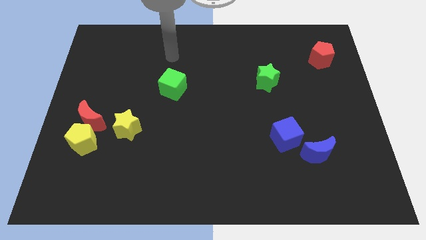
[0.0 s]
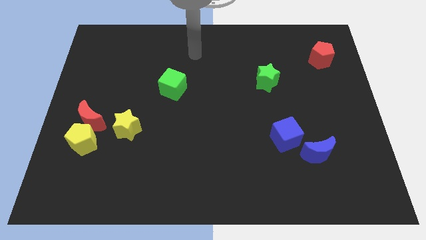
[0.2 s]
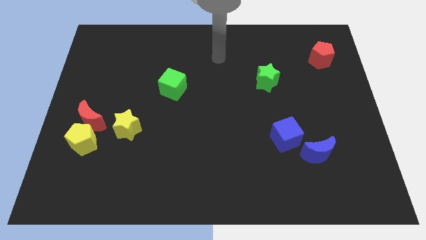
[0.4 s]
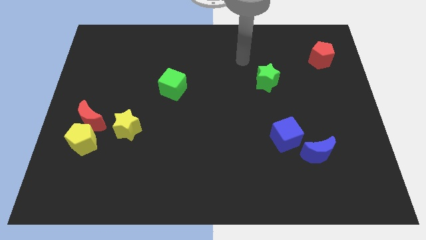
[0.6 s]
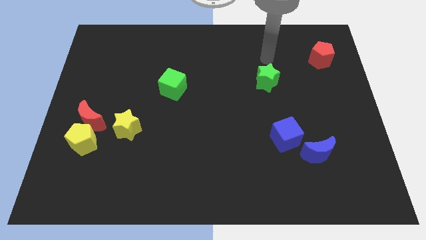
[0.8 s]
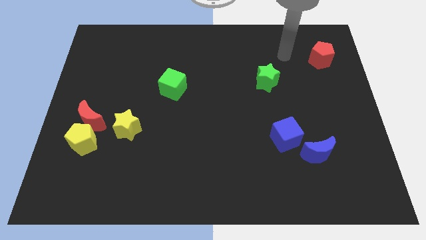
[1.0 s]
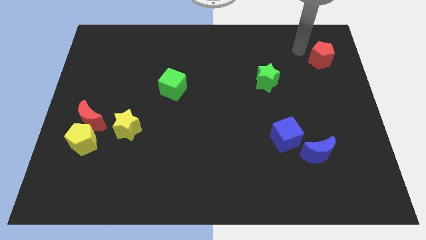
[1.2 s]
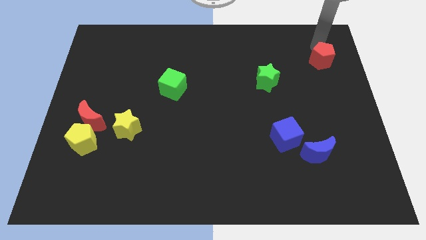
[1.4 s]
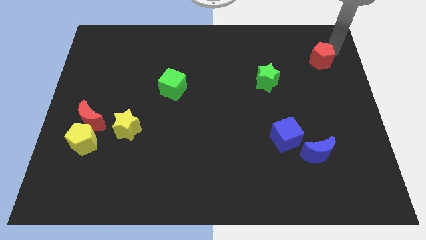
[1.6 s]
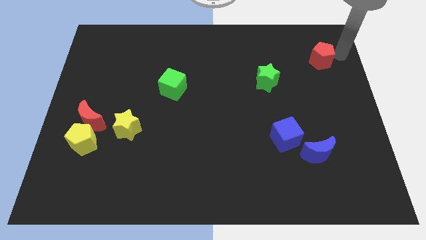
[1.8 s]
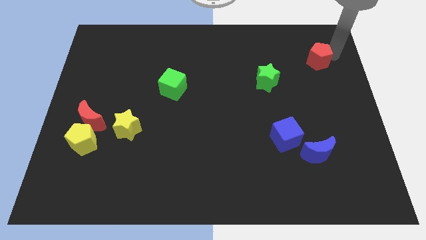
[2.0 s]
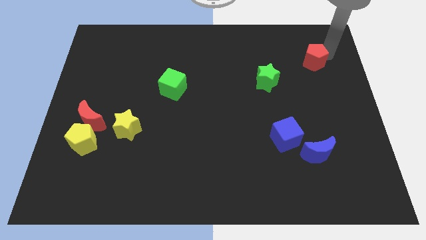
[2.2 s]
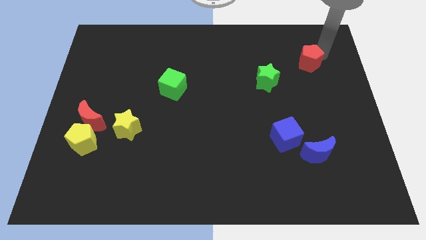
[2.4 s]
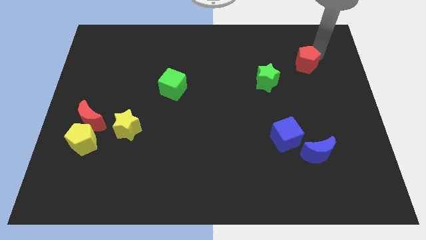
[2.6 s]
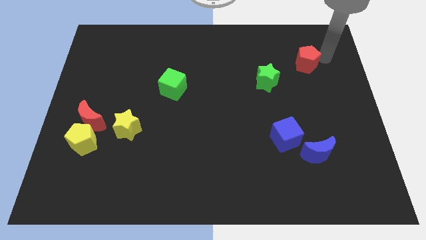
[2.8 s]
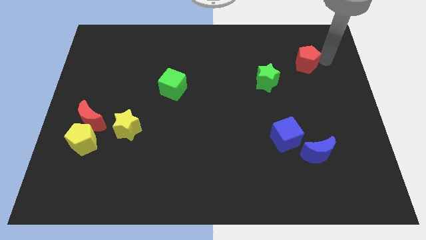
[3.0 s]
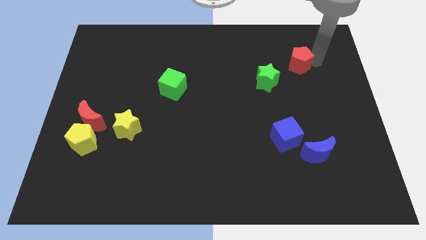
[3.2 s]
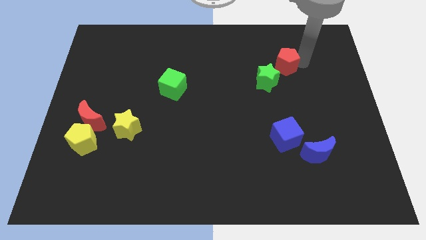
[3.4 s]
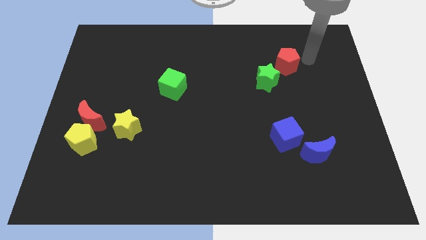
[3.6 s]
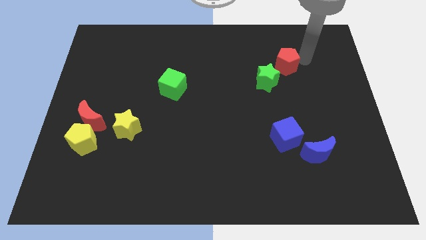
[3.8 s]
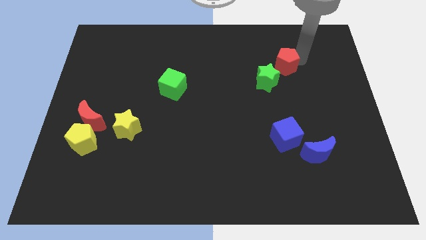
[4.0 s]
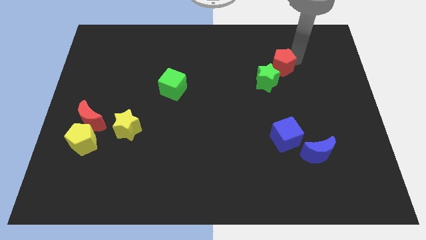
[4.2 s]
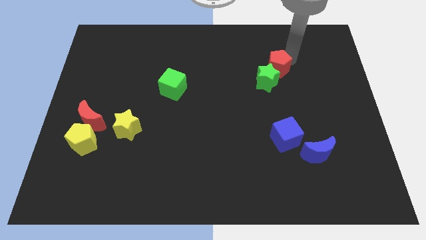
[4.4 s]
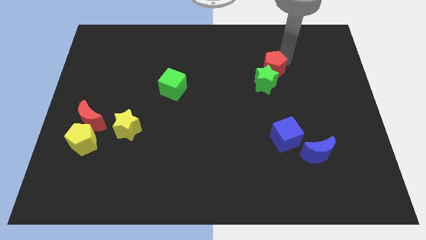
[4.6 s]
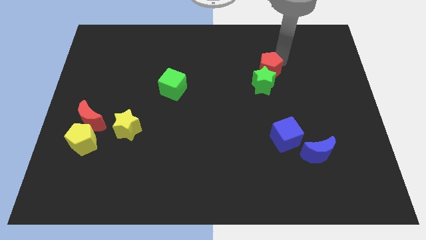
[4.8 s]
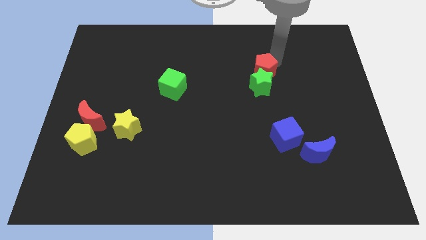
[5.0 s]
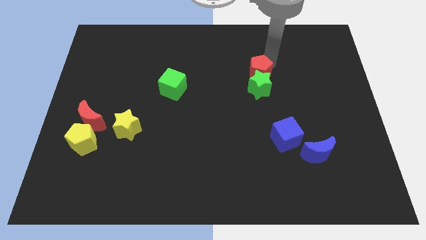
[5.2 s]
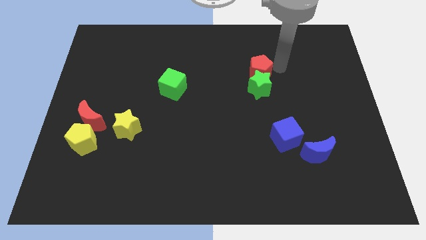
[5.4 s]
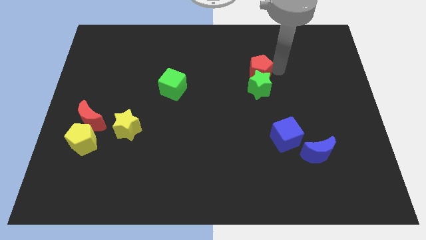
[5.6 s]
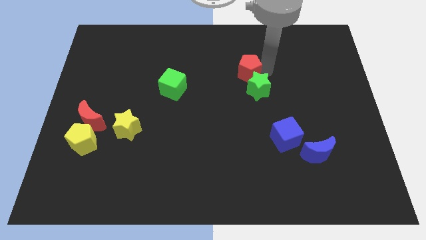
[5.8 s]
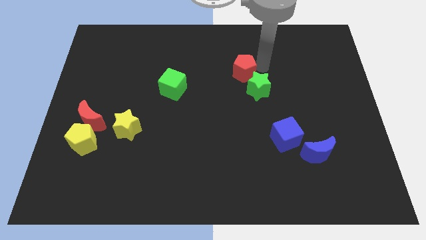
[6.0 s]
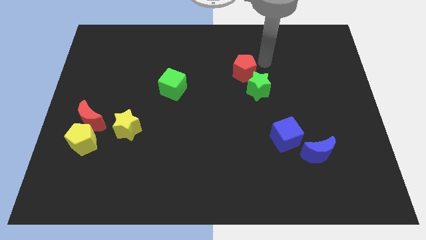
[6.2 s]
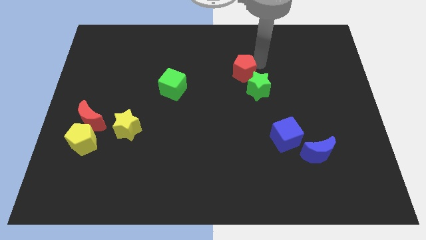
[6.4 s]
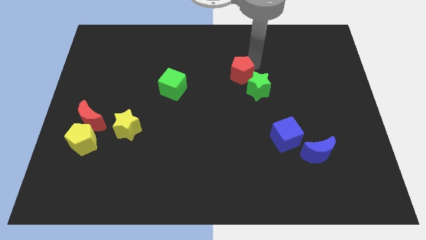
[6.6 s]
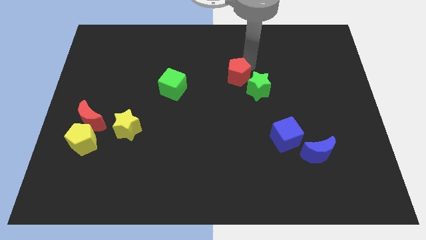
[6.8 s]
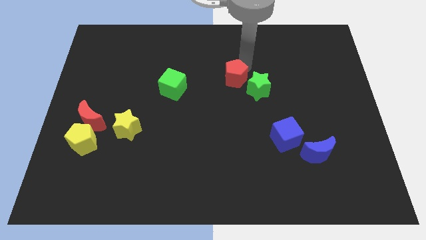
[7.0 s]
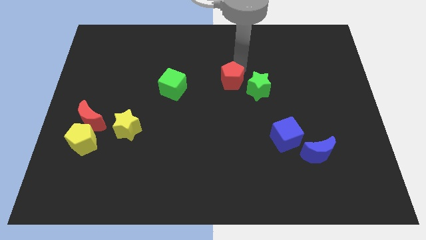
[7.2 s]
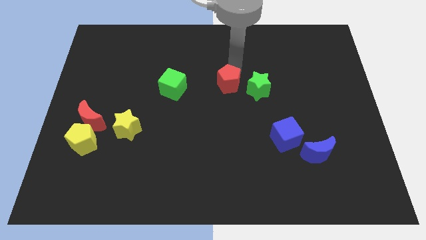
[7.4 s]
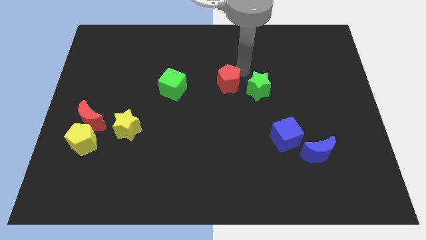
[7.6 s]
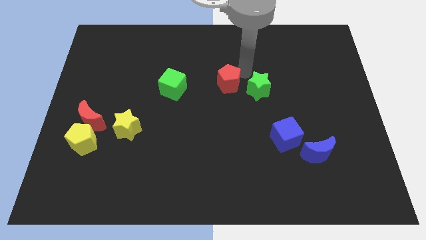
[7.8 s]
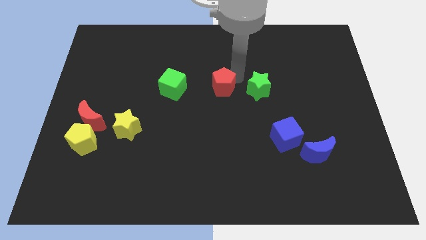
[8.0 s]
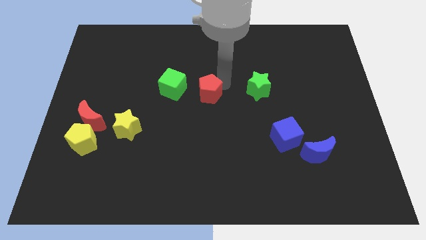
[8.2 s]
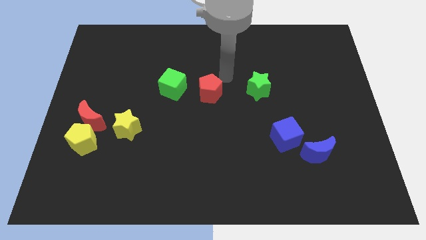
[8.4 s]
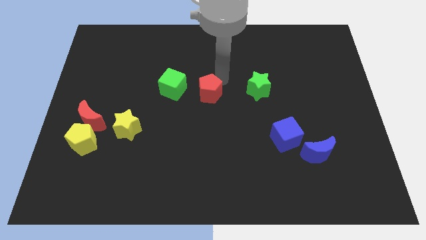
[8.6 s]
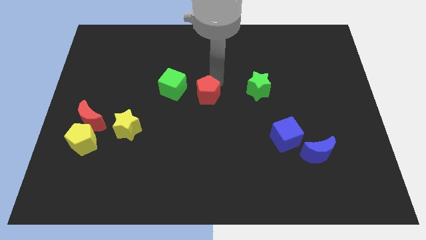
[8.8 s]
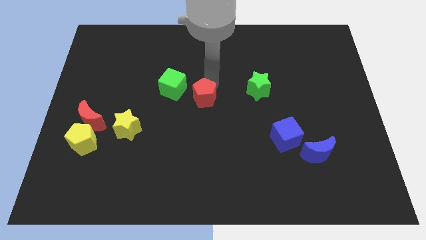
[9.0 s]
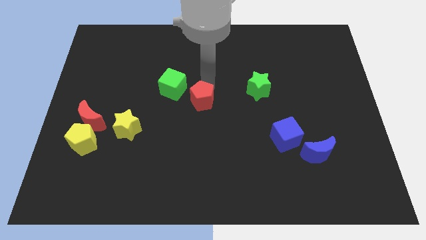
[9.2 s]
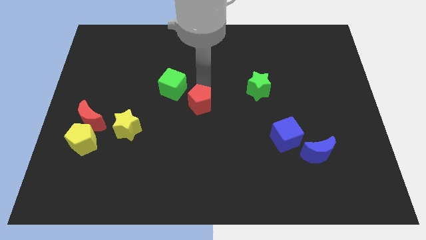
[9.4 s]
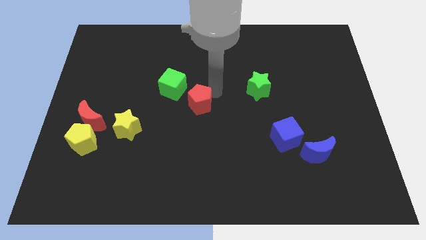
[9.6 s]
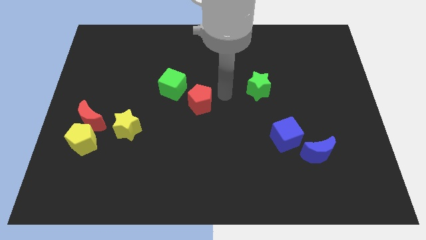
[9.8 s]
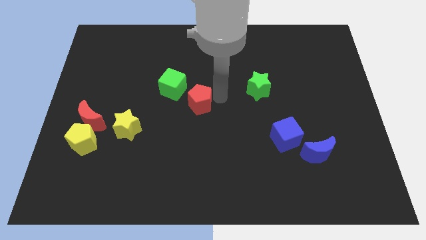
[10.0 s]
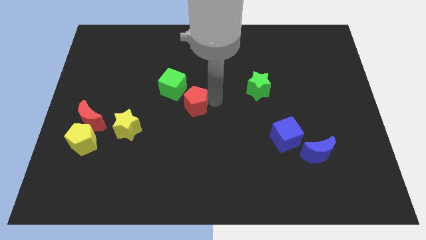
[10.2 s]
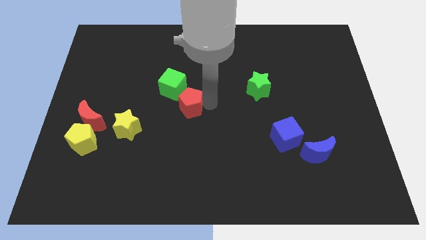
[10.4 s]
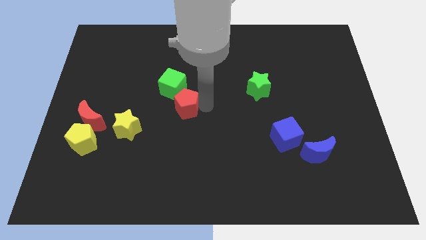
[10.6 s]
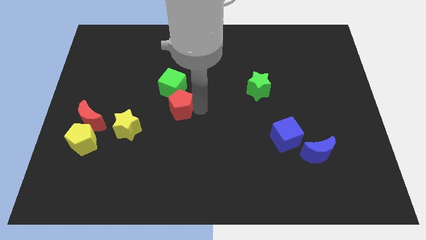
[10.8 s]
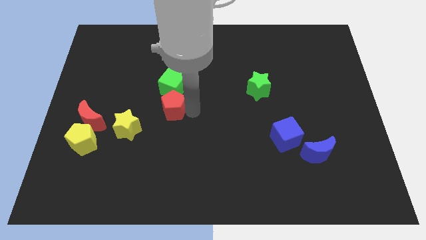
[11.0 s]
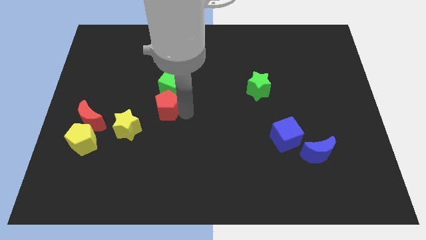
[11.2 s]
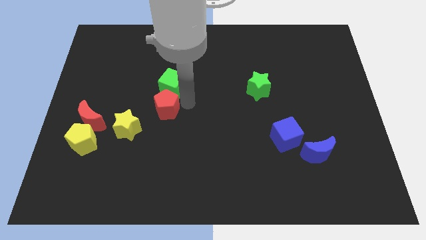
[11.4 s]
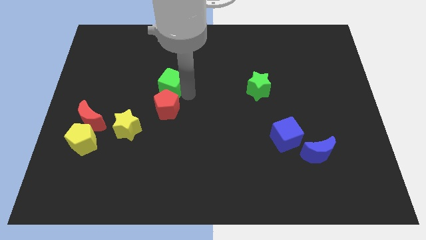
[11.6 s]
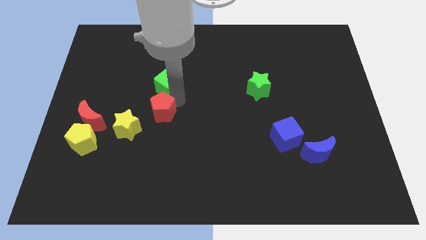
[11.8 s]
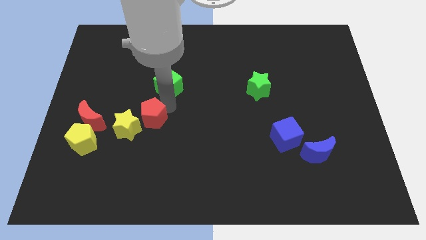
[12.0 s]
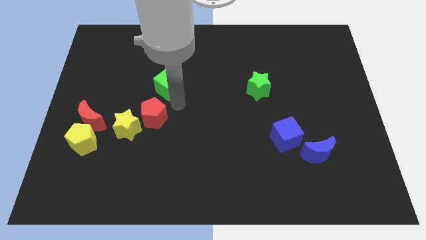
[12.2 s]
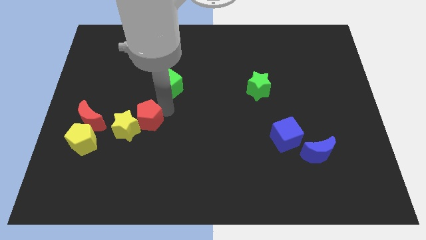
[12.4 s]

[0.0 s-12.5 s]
move the red pentagon next to the yellow star

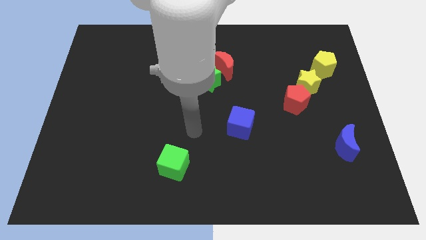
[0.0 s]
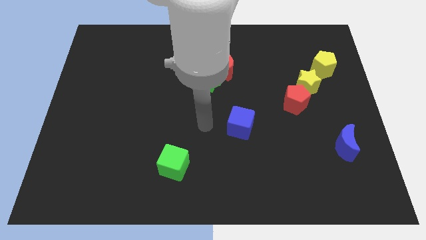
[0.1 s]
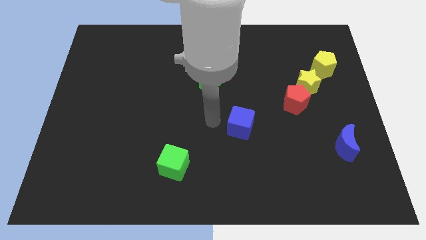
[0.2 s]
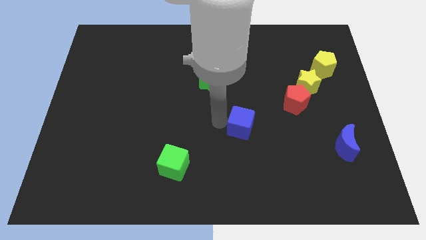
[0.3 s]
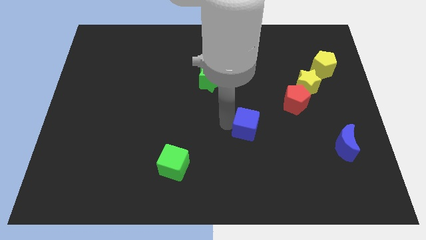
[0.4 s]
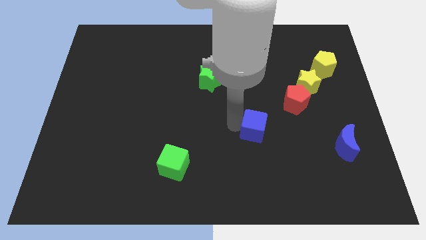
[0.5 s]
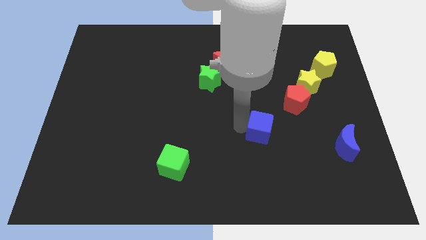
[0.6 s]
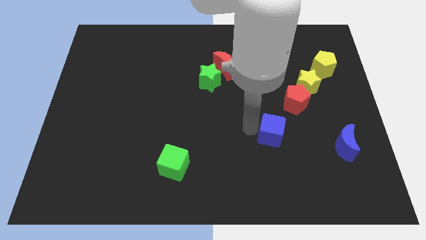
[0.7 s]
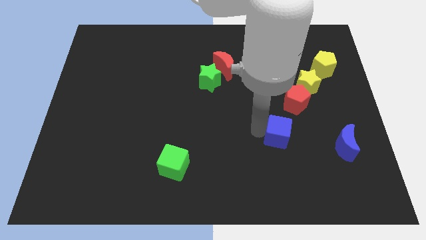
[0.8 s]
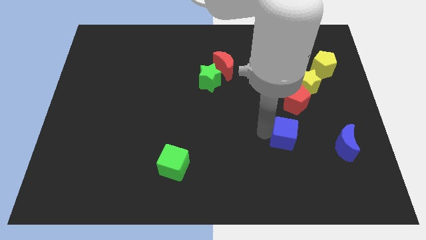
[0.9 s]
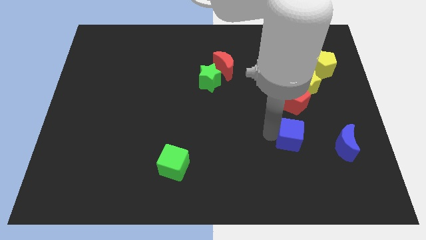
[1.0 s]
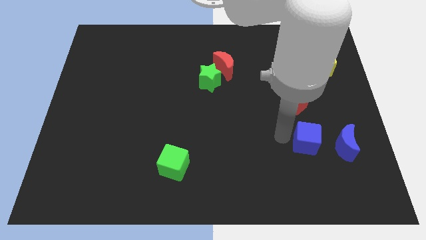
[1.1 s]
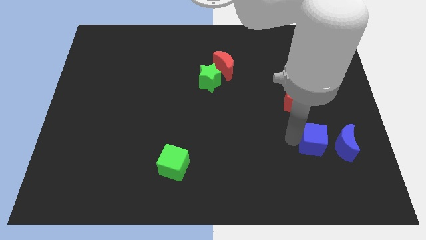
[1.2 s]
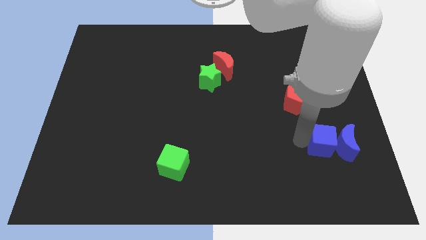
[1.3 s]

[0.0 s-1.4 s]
slide the blue cube to the blue moon
